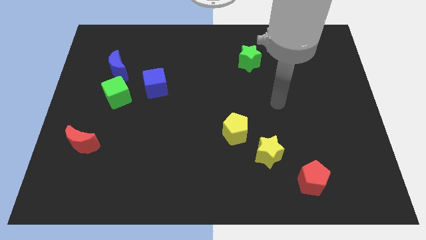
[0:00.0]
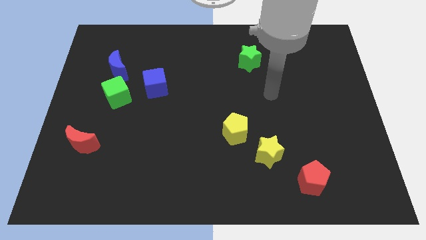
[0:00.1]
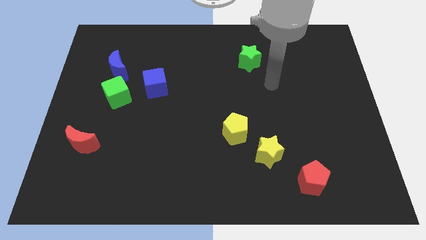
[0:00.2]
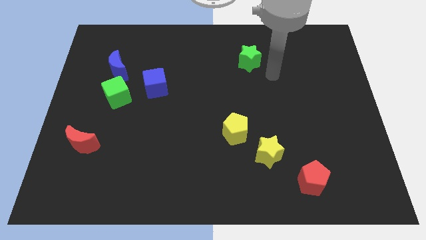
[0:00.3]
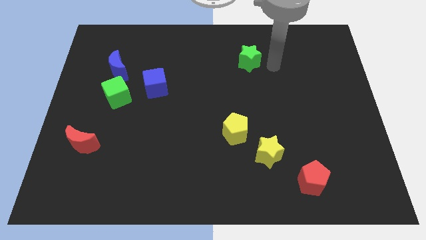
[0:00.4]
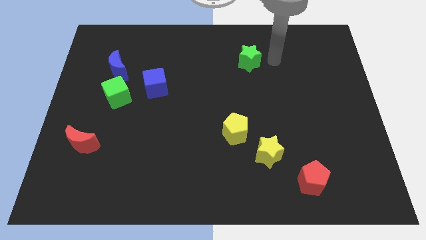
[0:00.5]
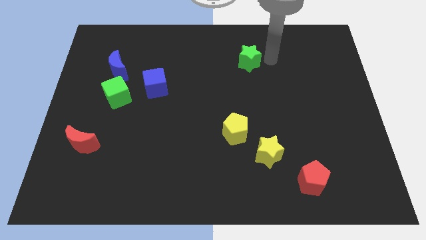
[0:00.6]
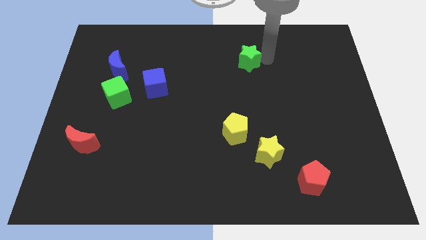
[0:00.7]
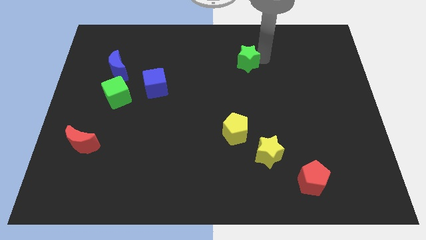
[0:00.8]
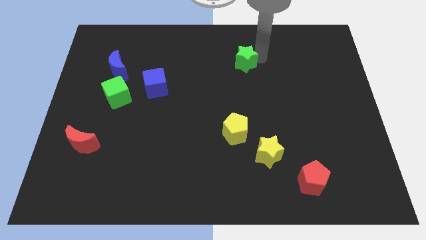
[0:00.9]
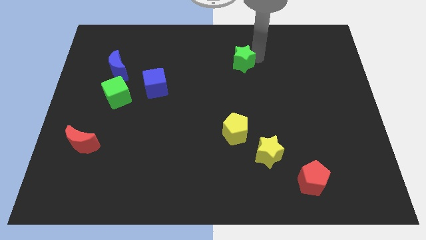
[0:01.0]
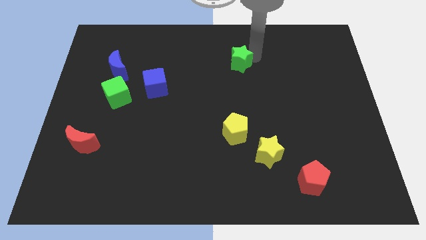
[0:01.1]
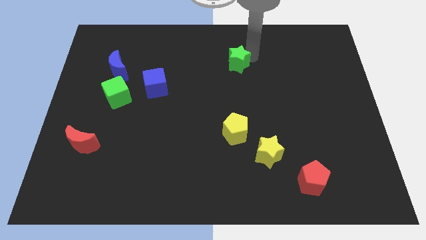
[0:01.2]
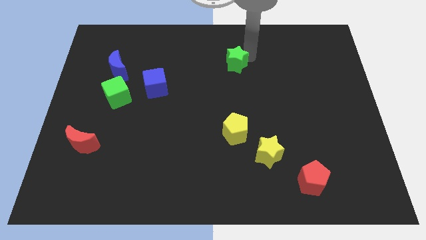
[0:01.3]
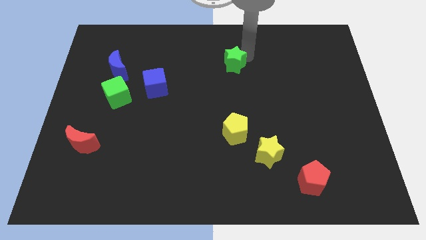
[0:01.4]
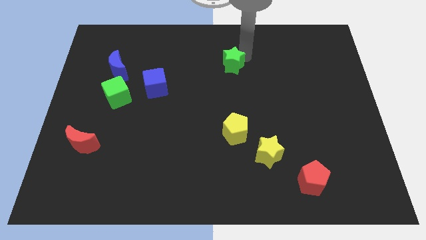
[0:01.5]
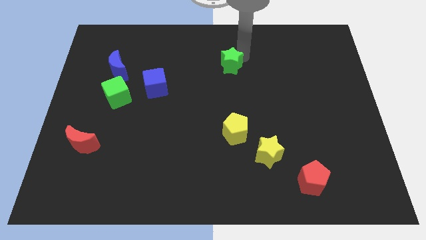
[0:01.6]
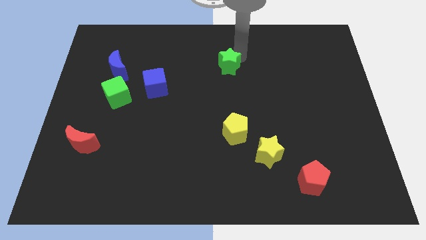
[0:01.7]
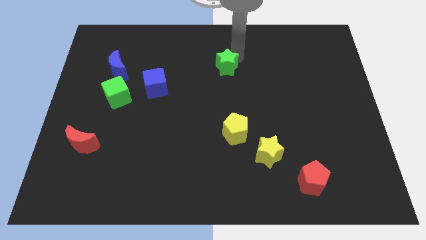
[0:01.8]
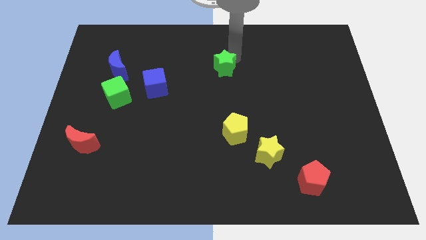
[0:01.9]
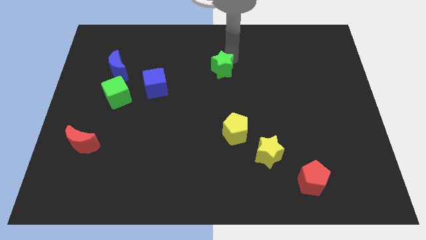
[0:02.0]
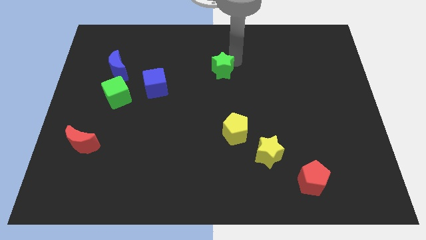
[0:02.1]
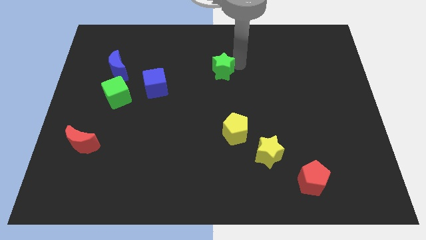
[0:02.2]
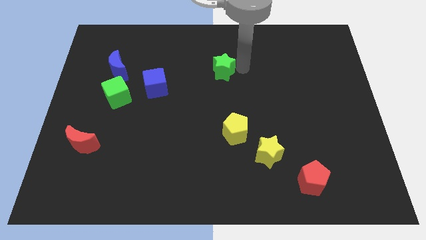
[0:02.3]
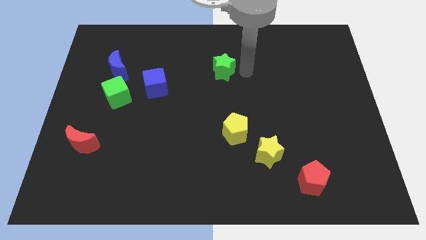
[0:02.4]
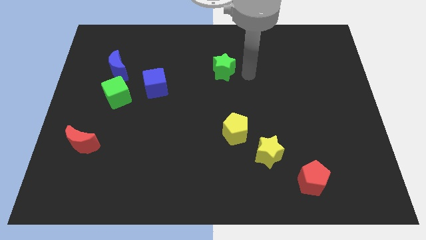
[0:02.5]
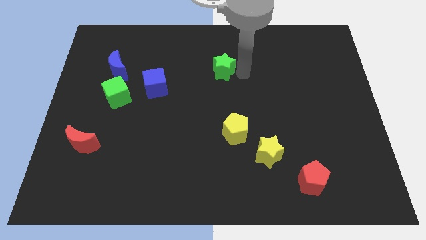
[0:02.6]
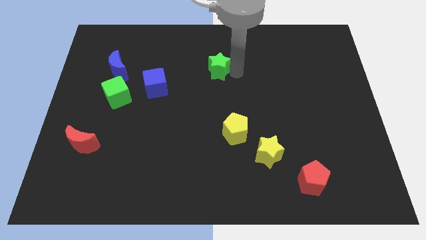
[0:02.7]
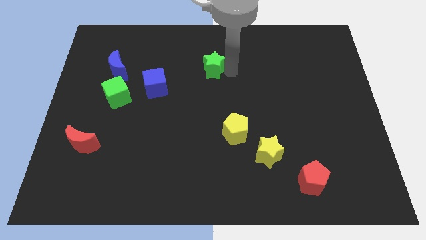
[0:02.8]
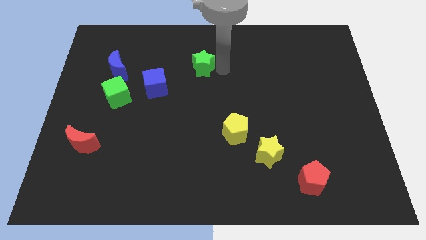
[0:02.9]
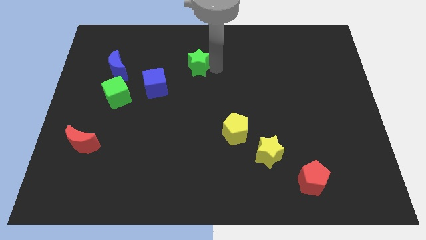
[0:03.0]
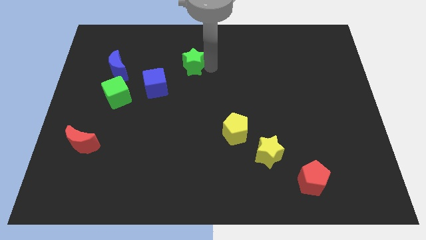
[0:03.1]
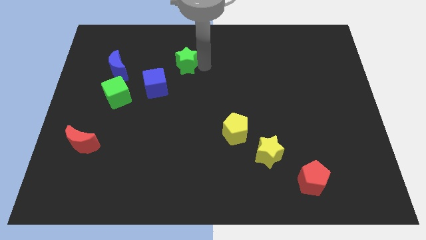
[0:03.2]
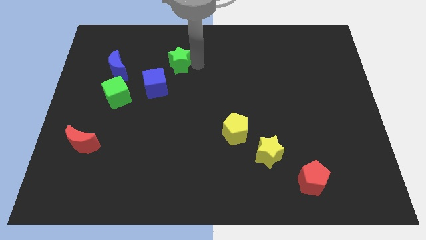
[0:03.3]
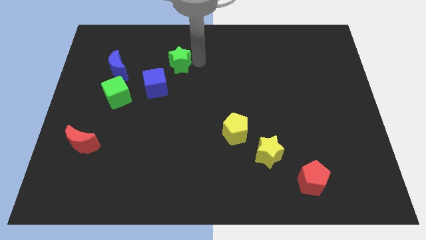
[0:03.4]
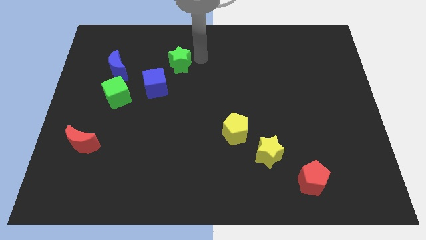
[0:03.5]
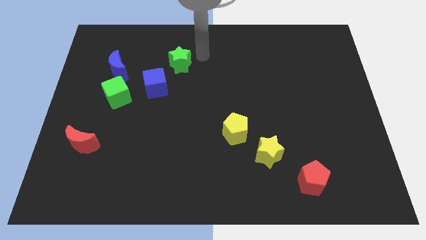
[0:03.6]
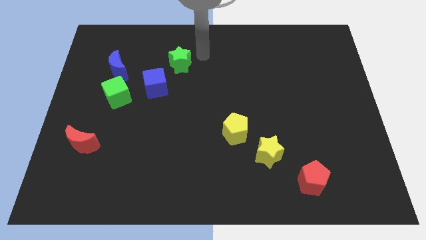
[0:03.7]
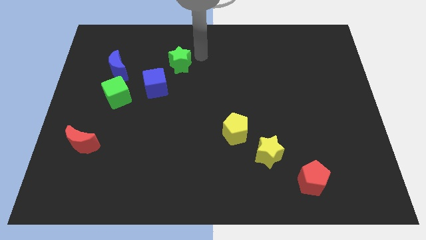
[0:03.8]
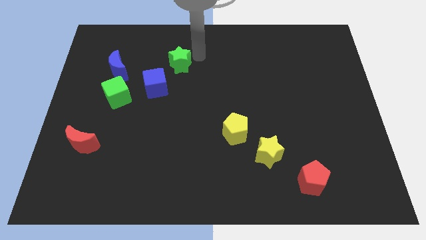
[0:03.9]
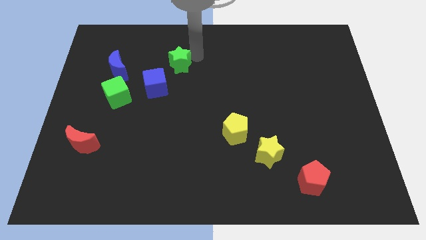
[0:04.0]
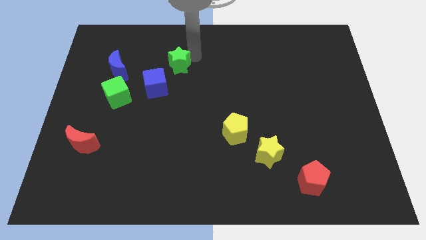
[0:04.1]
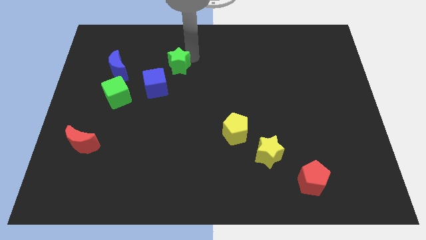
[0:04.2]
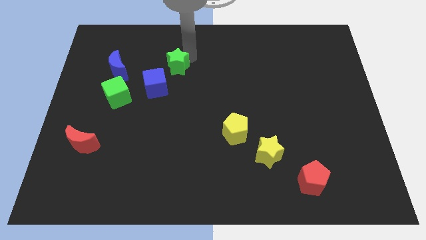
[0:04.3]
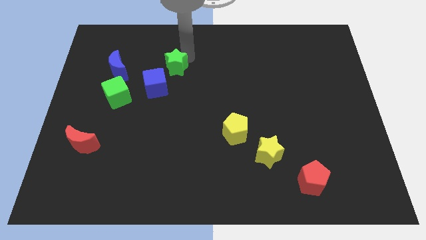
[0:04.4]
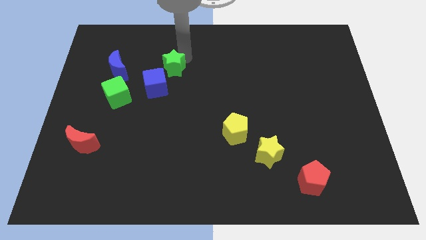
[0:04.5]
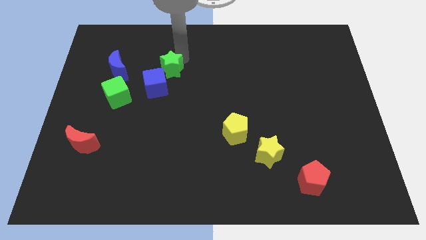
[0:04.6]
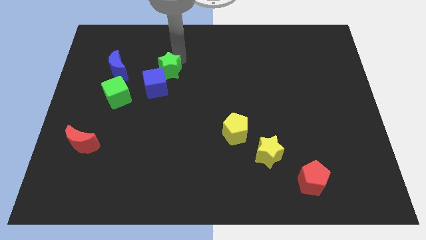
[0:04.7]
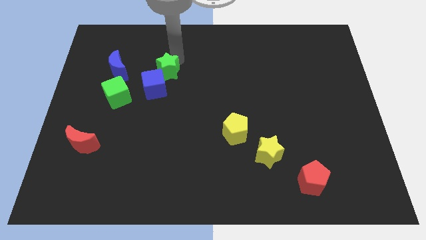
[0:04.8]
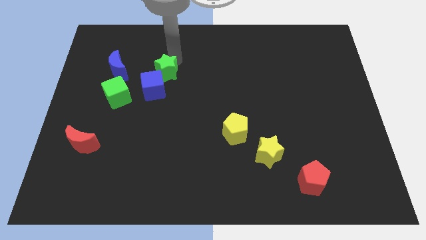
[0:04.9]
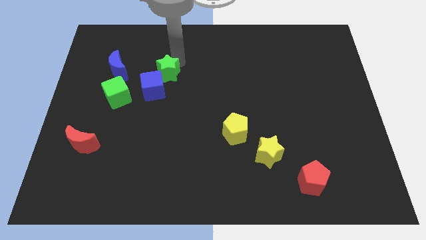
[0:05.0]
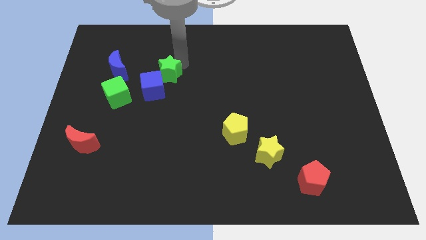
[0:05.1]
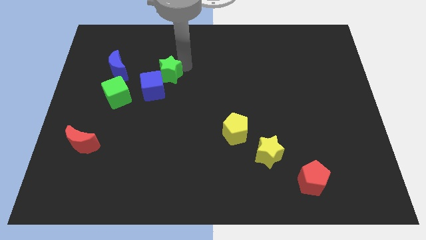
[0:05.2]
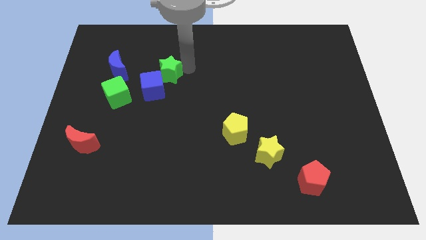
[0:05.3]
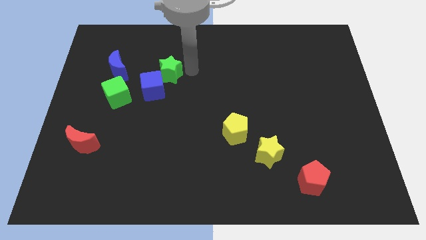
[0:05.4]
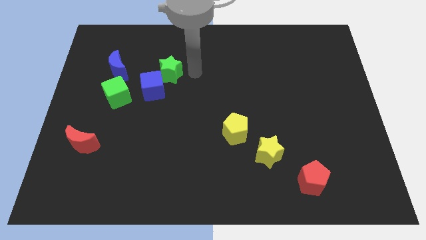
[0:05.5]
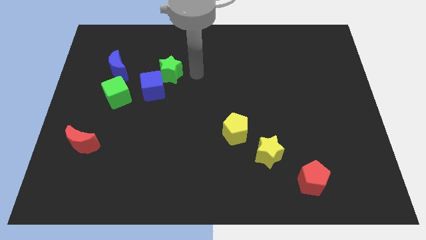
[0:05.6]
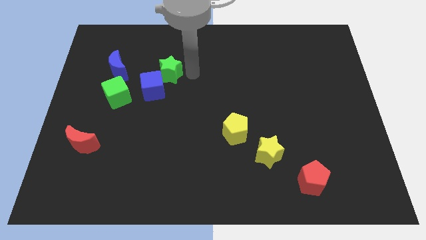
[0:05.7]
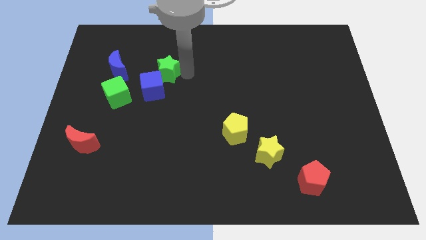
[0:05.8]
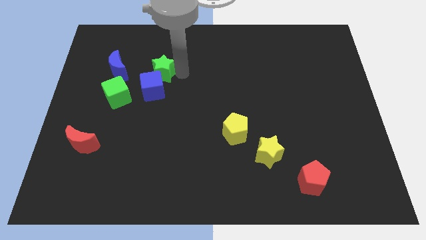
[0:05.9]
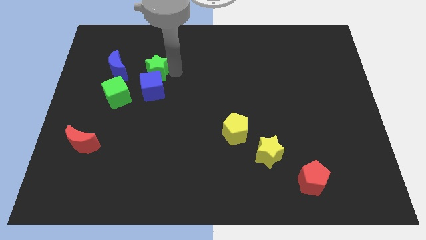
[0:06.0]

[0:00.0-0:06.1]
push the green star diagonally up and to the right of the green cube
